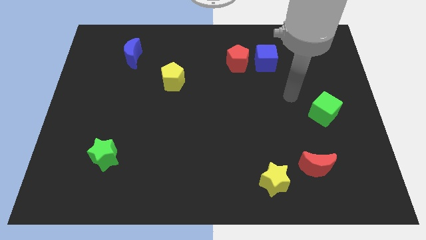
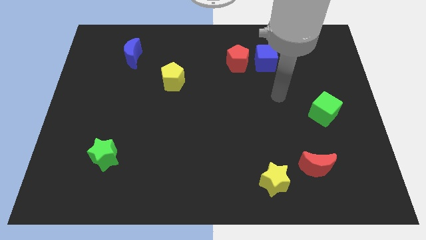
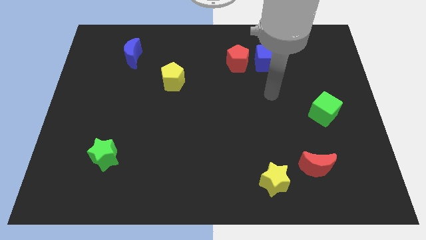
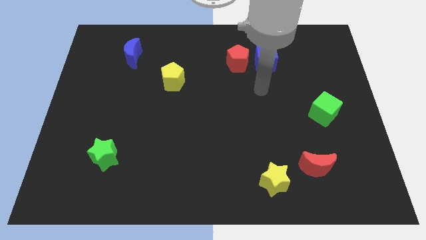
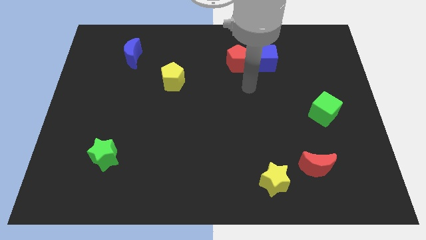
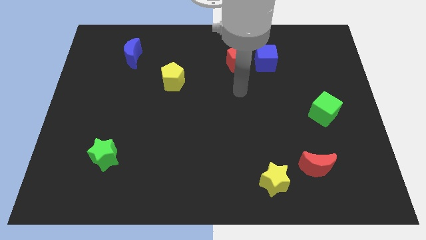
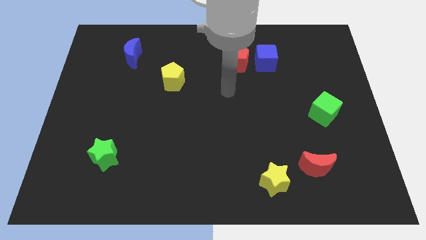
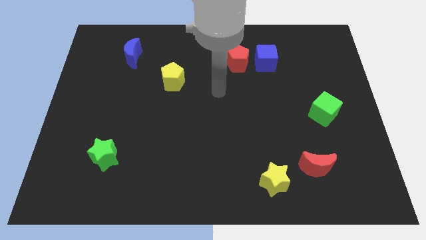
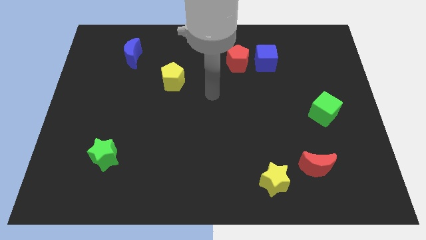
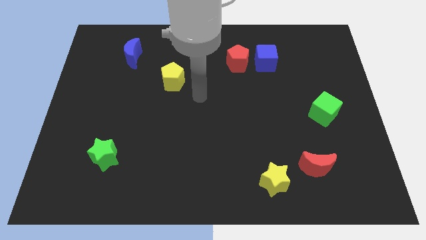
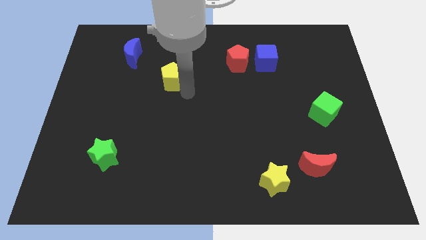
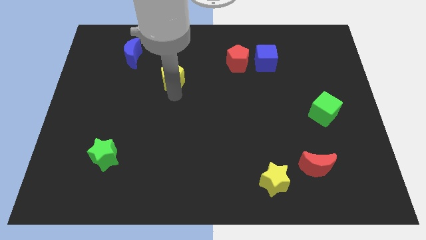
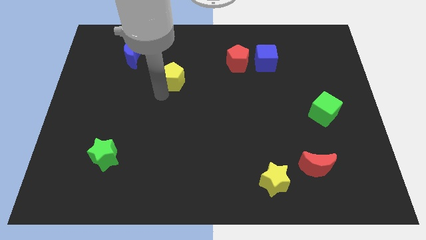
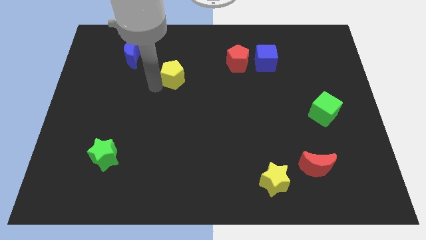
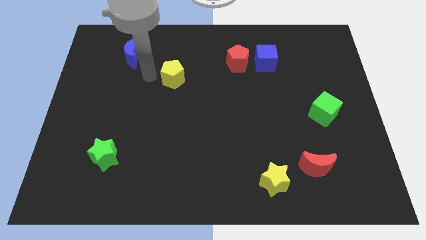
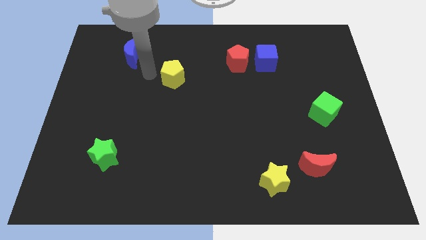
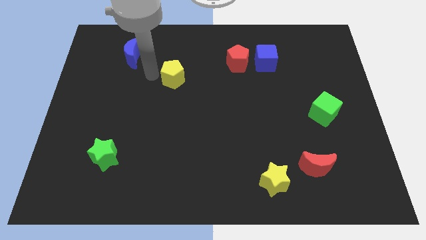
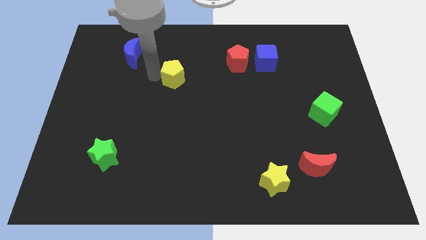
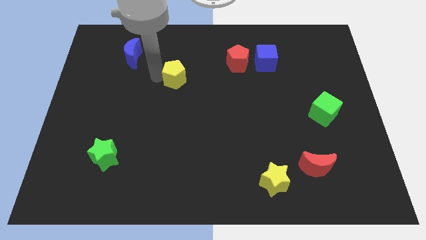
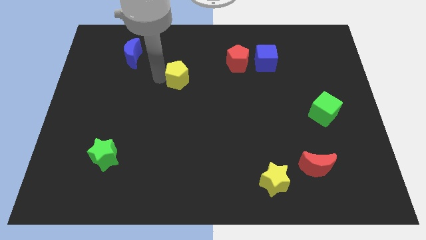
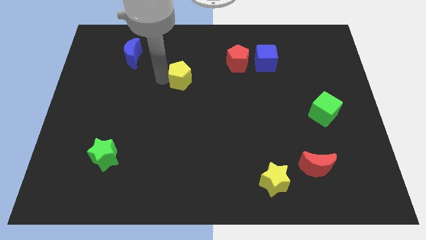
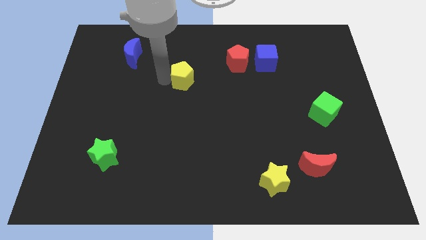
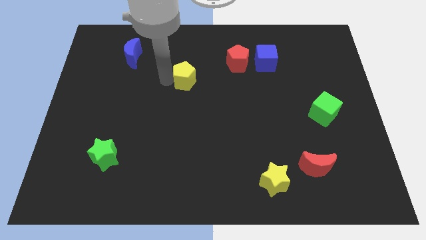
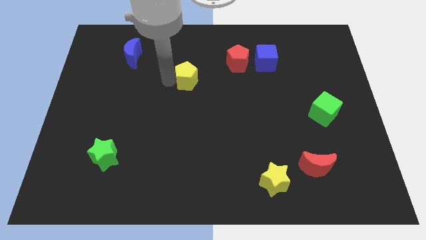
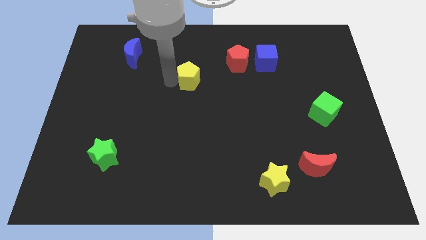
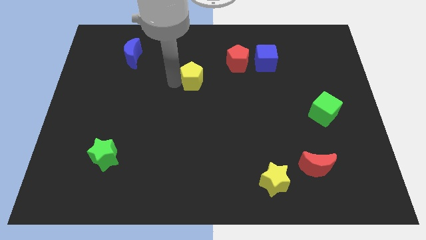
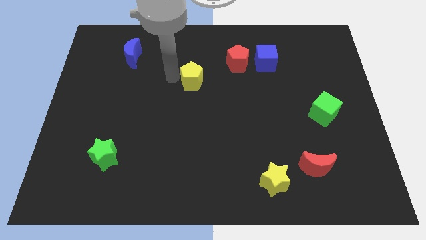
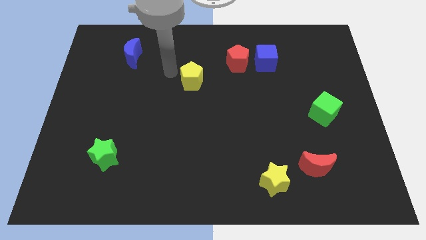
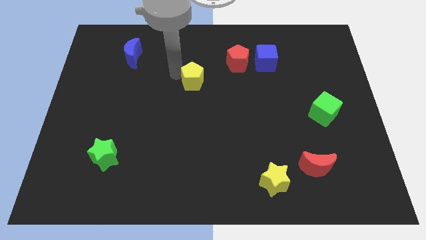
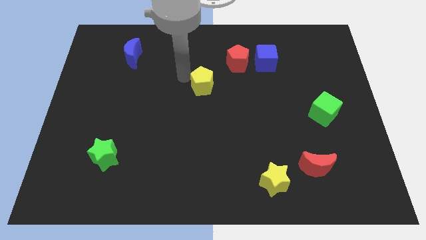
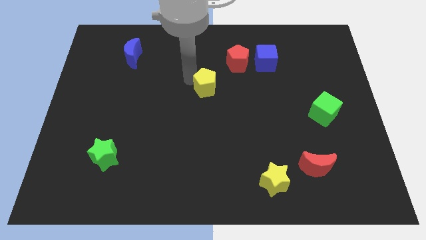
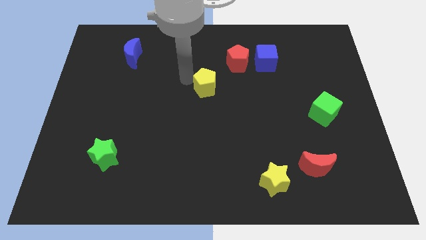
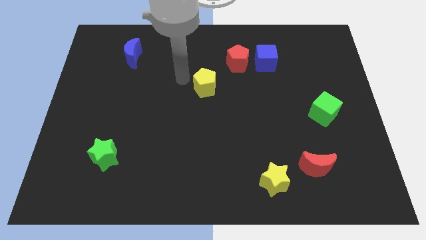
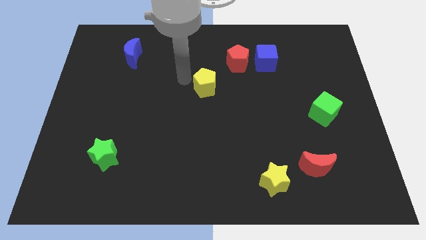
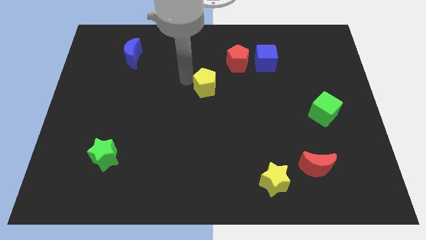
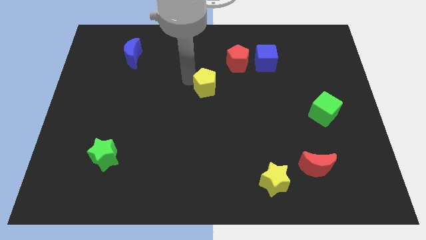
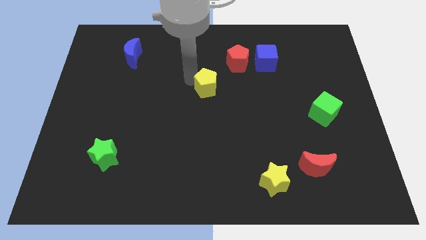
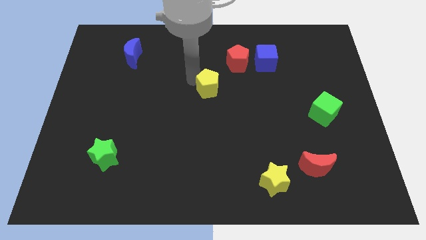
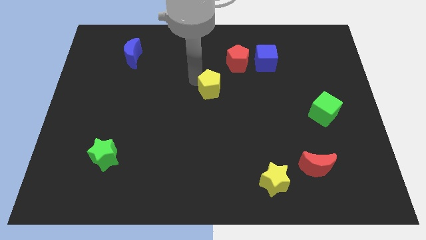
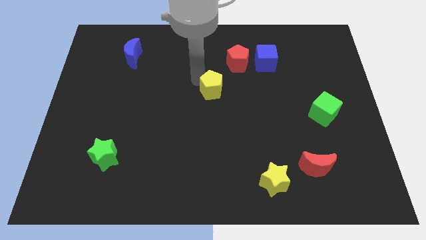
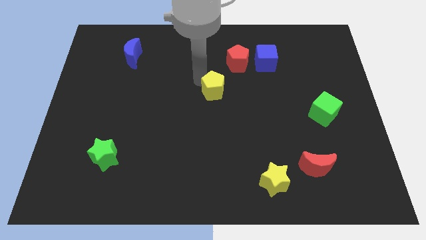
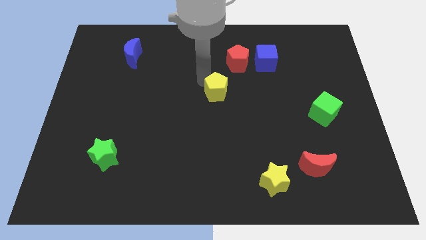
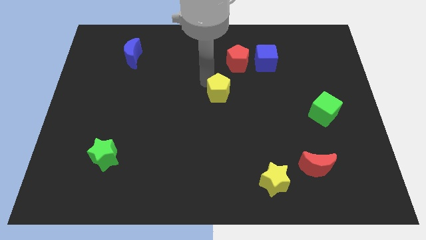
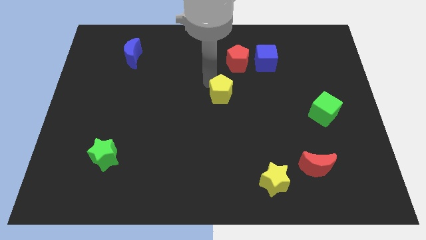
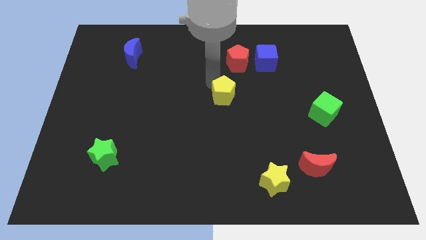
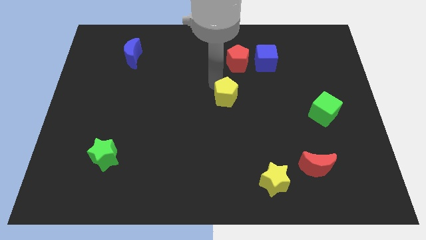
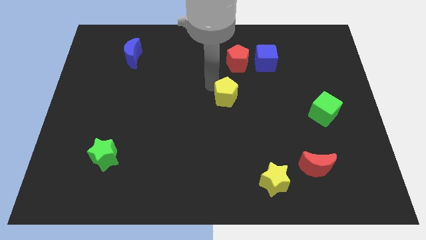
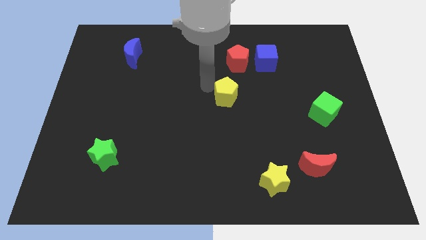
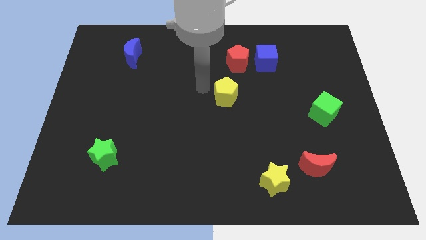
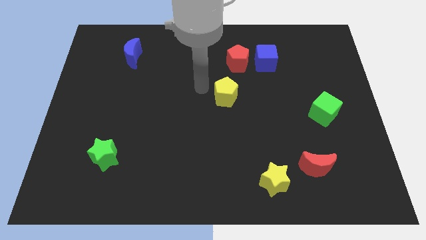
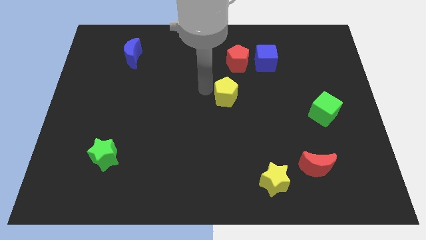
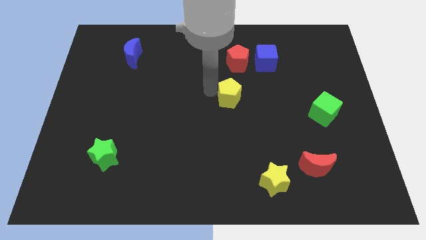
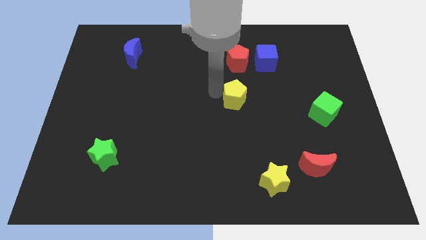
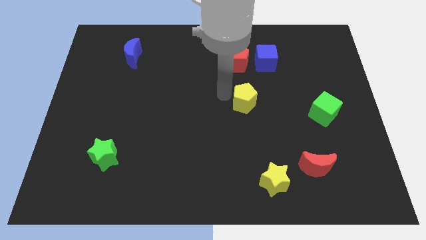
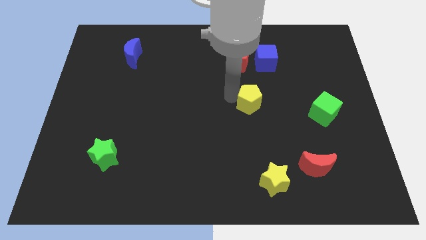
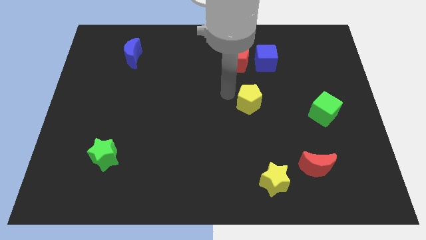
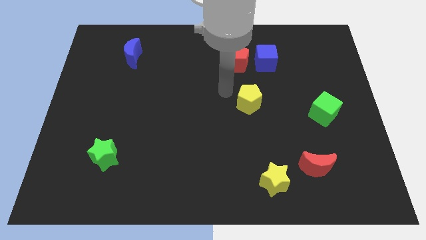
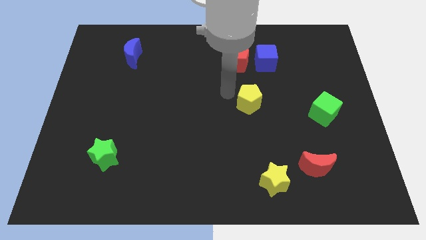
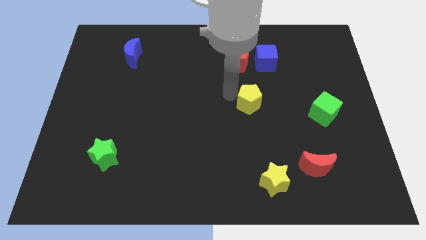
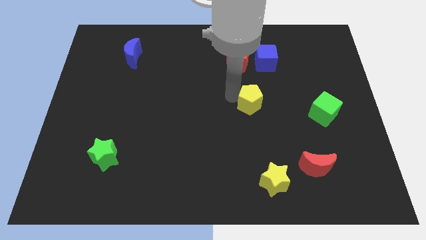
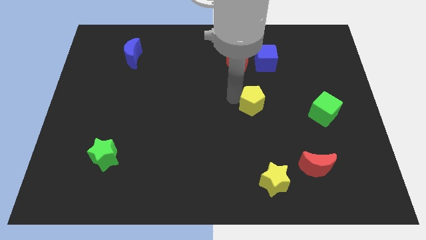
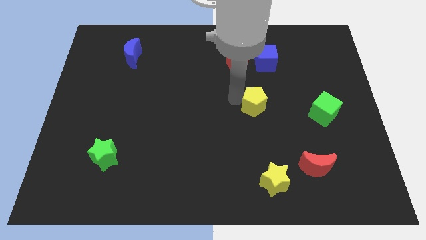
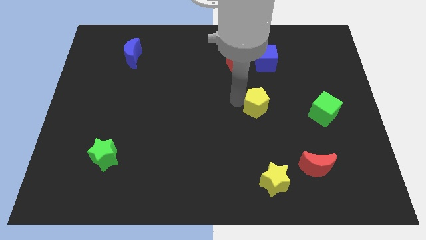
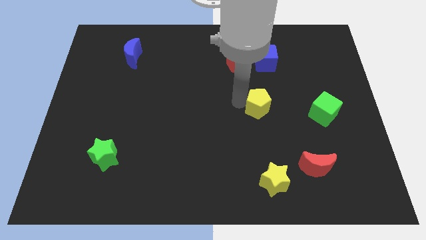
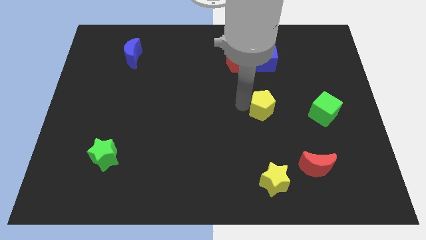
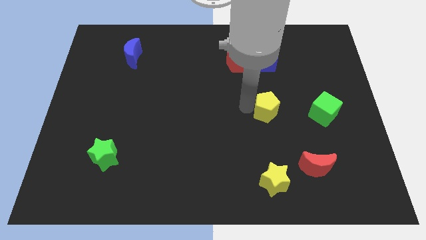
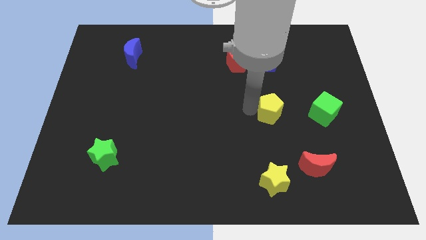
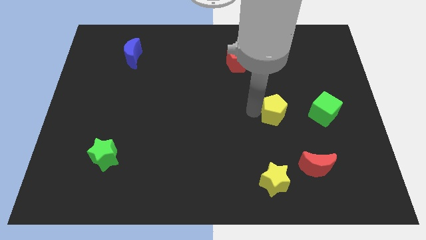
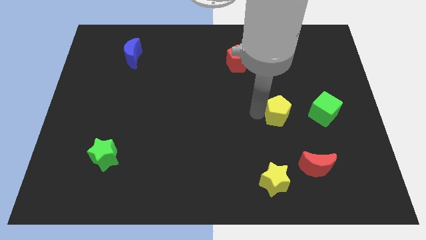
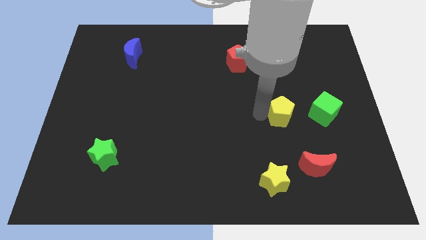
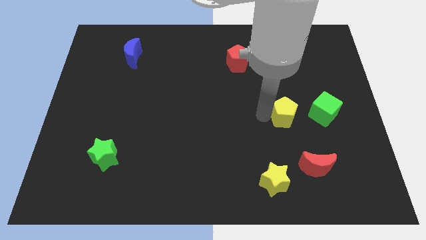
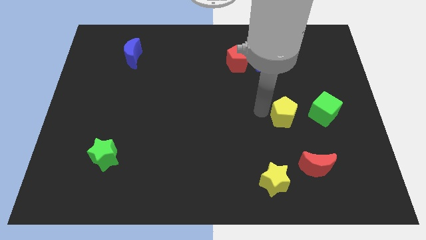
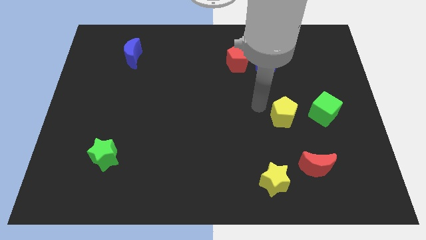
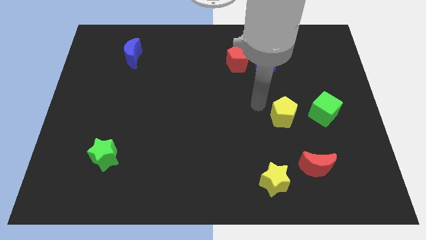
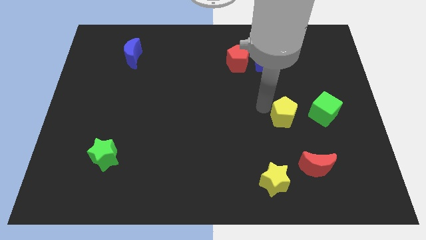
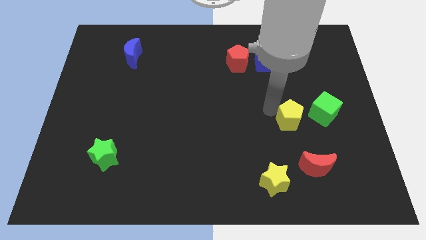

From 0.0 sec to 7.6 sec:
slide the yellow pentagon above the red moon

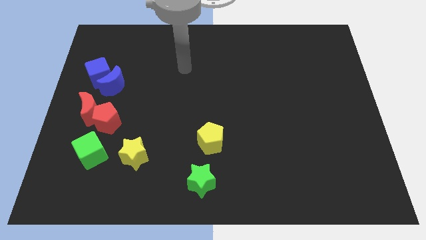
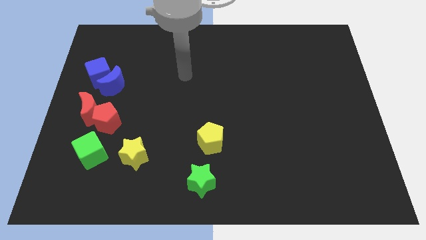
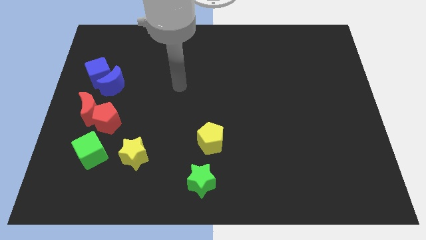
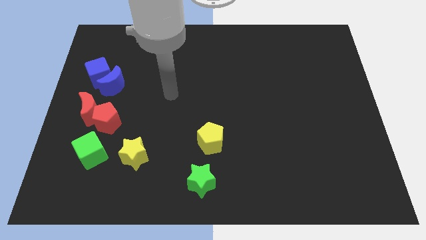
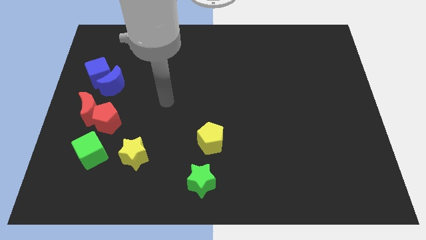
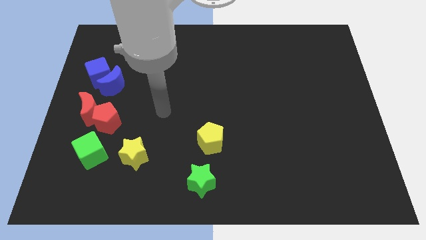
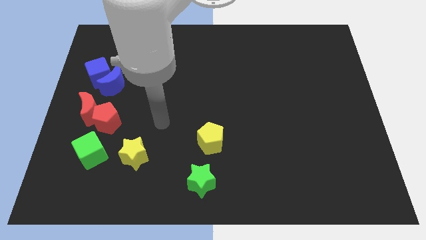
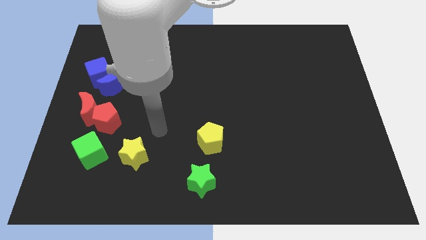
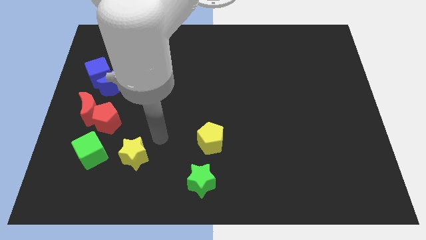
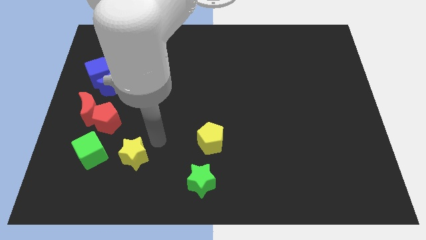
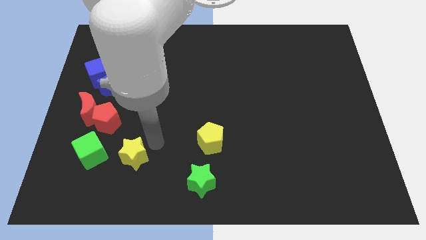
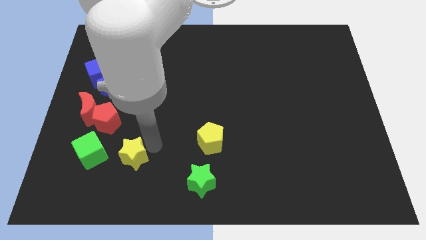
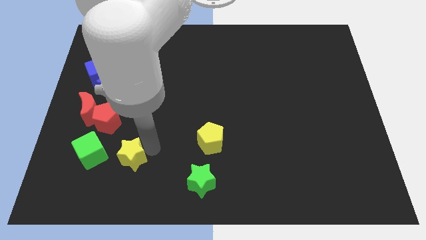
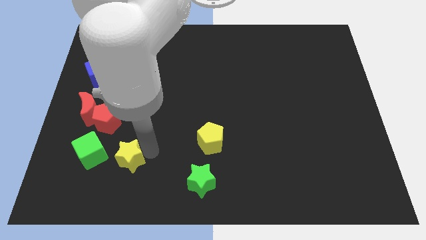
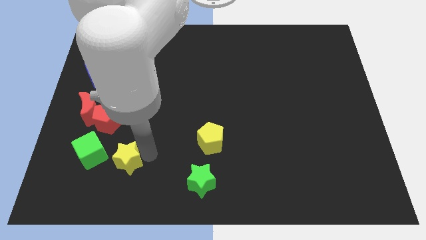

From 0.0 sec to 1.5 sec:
put the yellow star diagonally down and to the right of the green cube
